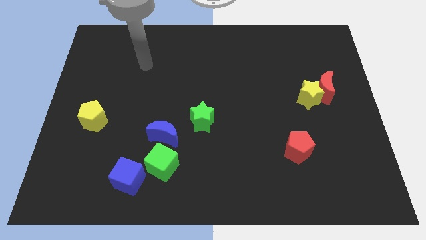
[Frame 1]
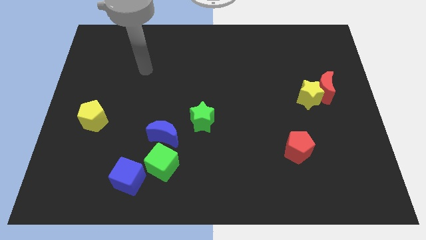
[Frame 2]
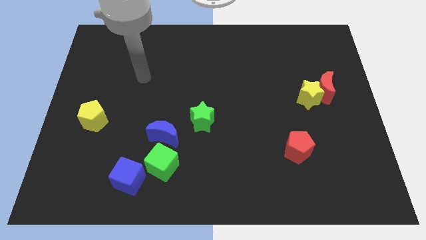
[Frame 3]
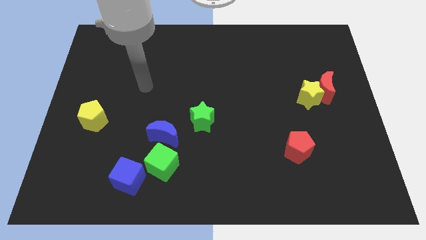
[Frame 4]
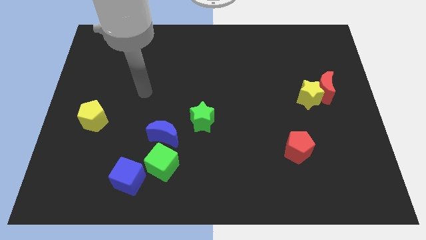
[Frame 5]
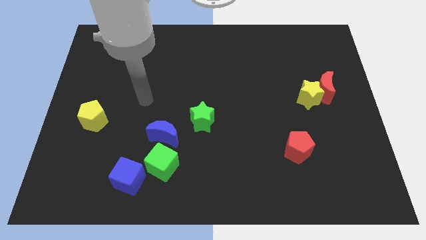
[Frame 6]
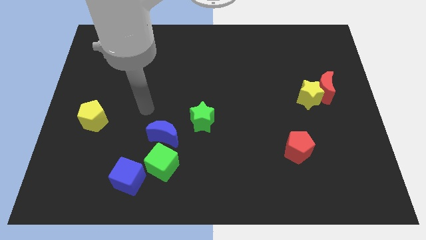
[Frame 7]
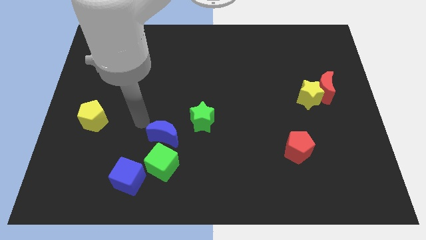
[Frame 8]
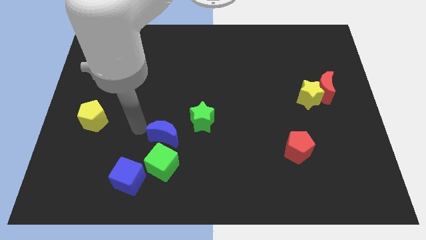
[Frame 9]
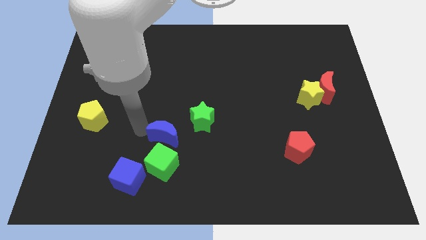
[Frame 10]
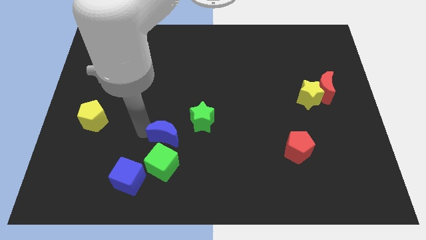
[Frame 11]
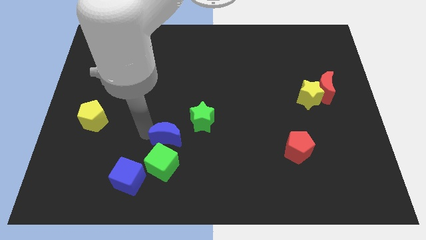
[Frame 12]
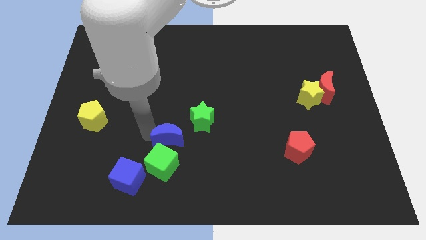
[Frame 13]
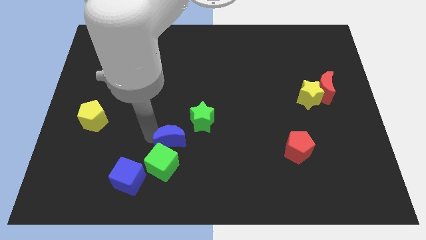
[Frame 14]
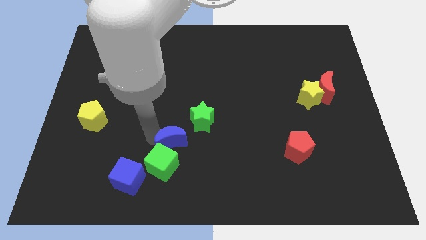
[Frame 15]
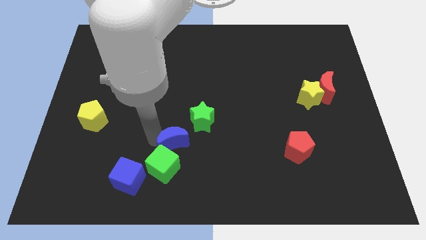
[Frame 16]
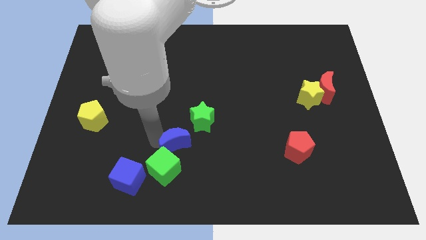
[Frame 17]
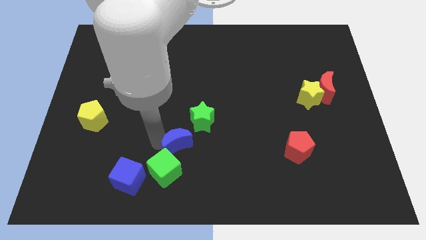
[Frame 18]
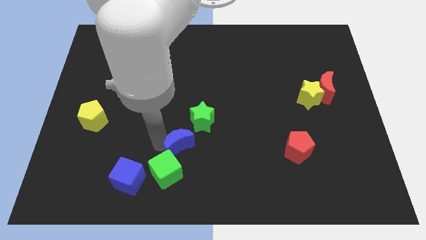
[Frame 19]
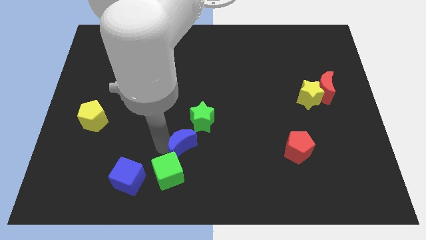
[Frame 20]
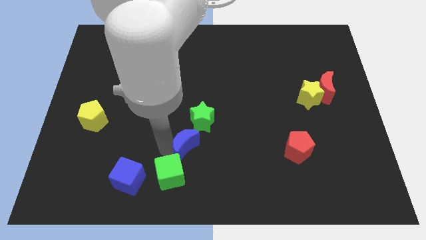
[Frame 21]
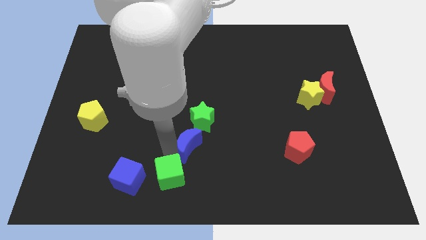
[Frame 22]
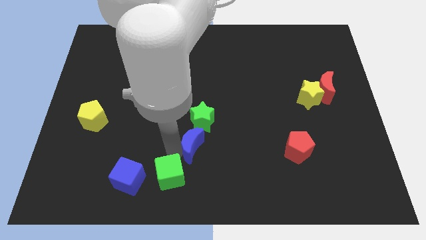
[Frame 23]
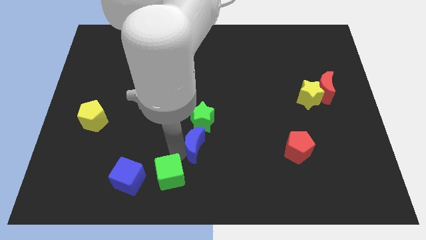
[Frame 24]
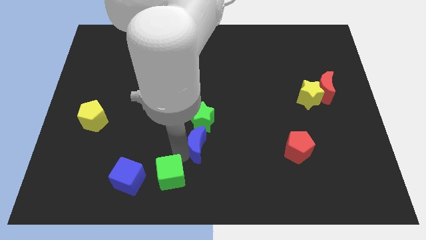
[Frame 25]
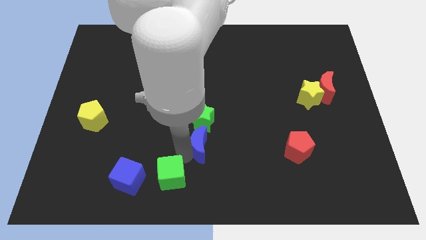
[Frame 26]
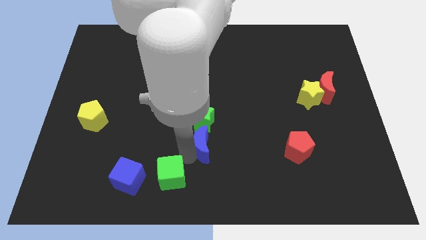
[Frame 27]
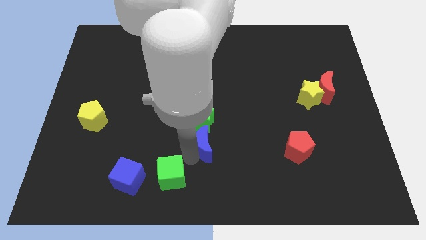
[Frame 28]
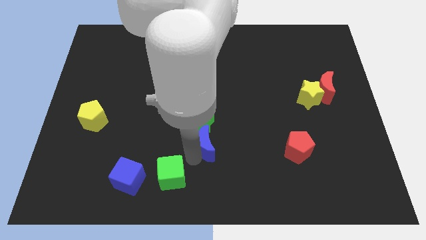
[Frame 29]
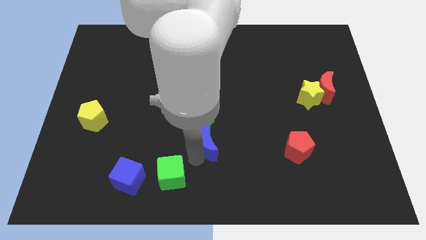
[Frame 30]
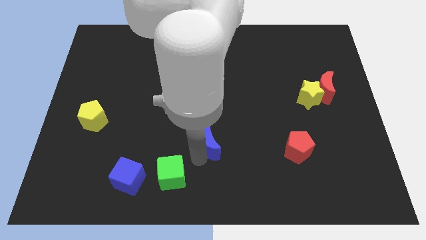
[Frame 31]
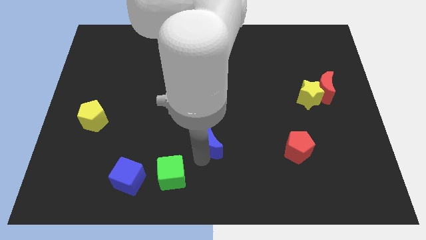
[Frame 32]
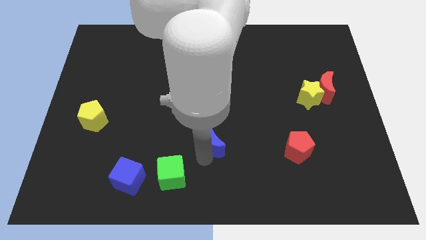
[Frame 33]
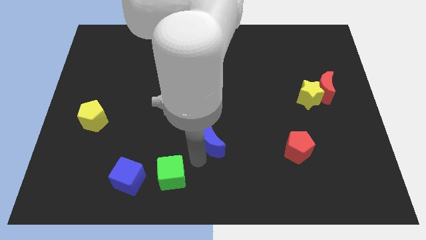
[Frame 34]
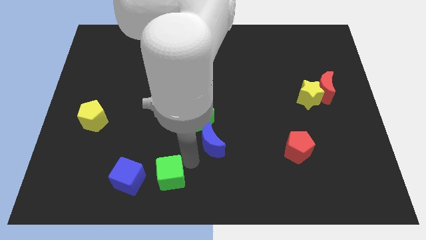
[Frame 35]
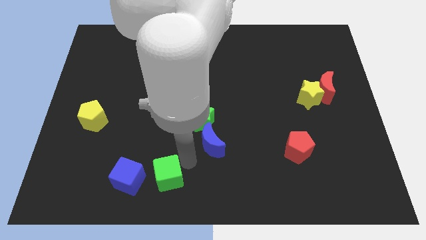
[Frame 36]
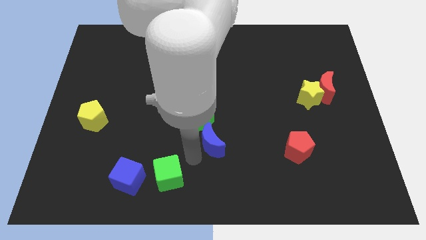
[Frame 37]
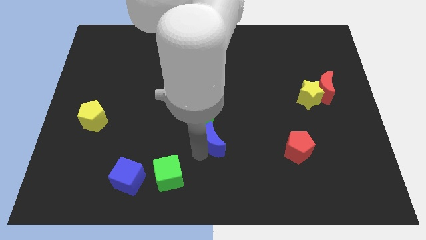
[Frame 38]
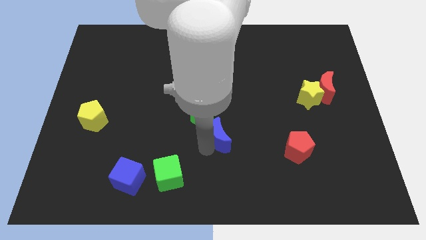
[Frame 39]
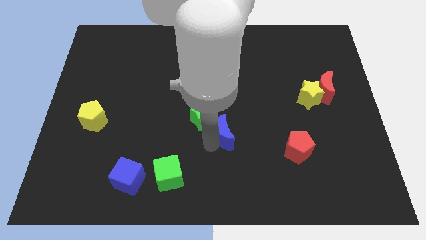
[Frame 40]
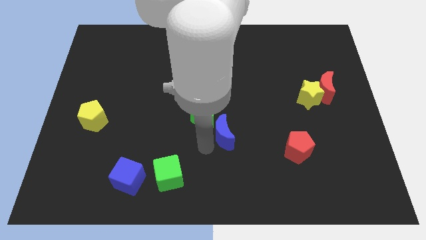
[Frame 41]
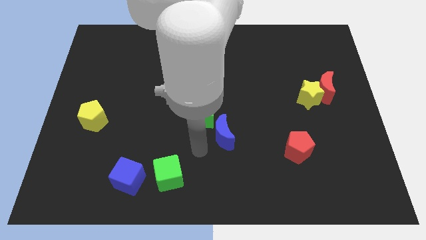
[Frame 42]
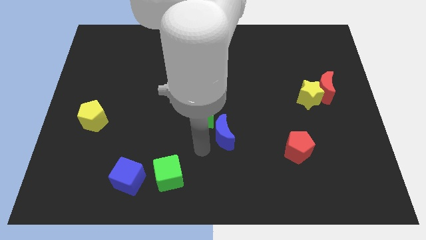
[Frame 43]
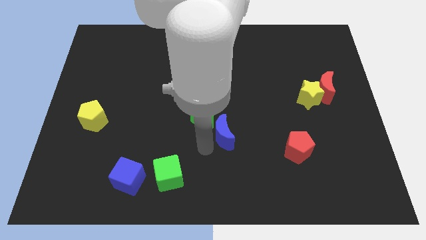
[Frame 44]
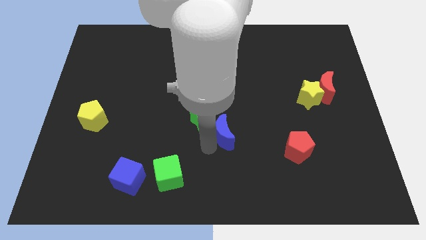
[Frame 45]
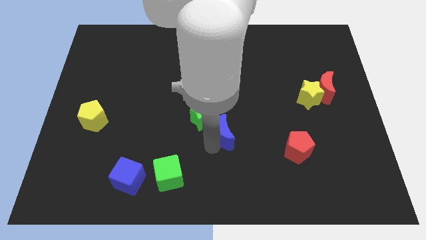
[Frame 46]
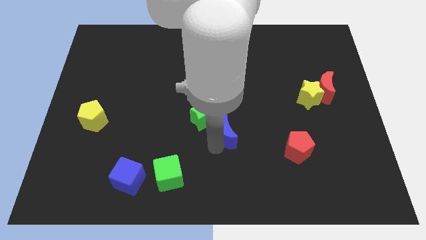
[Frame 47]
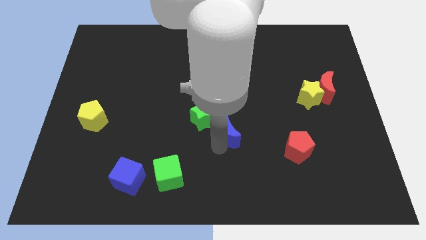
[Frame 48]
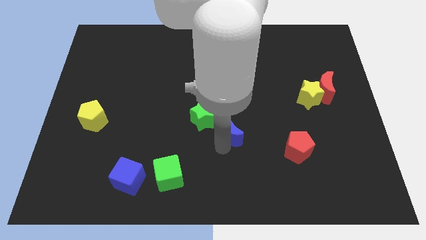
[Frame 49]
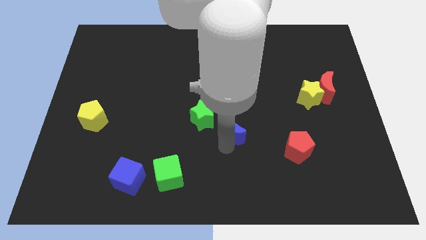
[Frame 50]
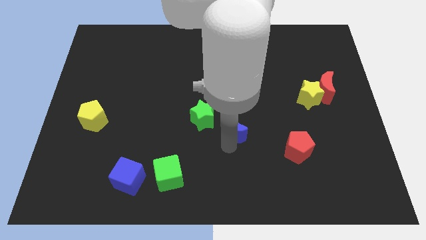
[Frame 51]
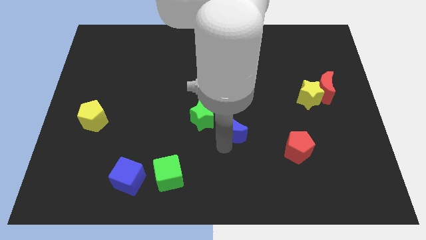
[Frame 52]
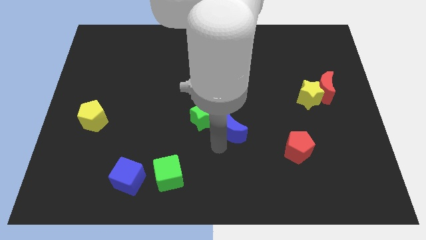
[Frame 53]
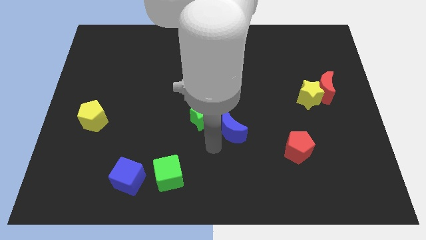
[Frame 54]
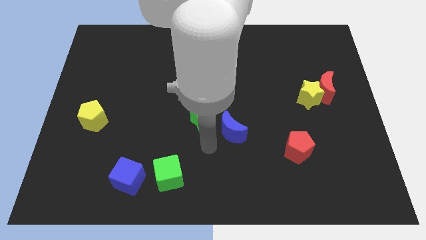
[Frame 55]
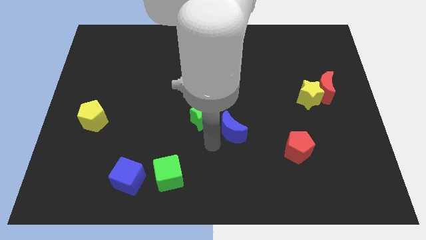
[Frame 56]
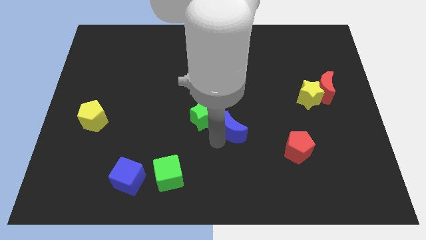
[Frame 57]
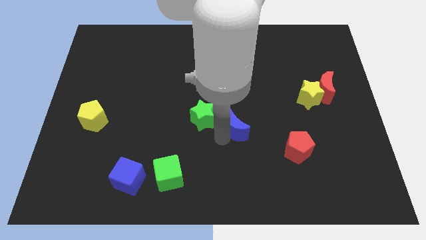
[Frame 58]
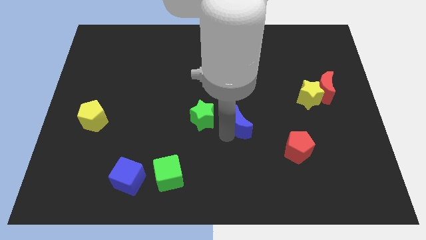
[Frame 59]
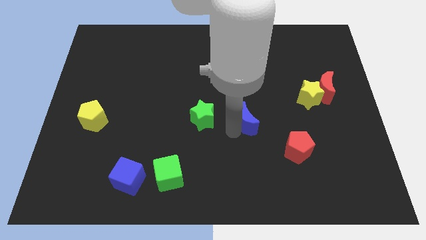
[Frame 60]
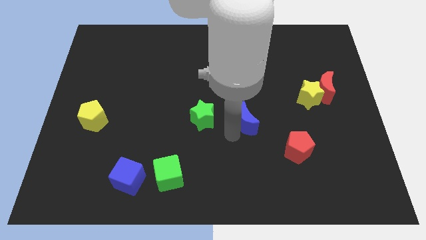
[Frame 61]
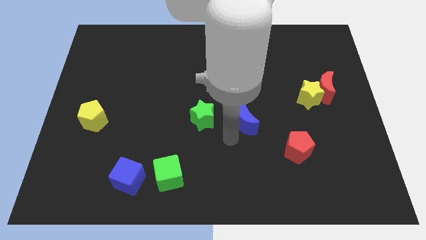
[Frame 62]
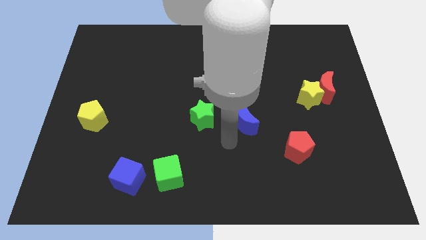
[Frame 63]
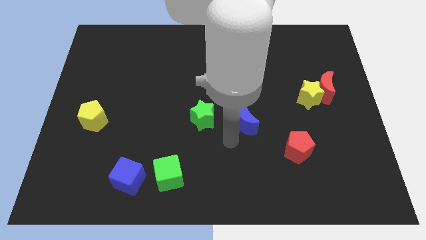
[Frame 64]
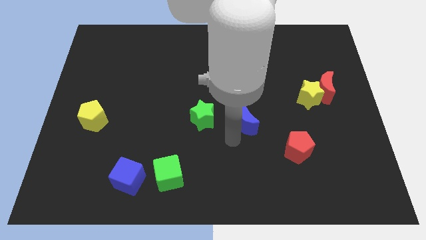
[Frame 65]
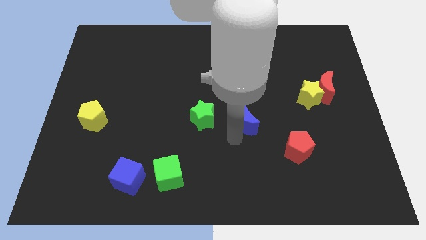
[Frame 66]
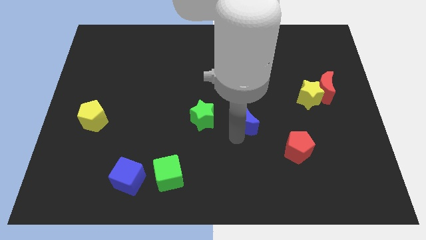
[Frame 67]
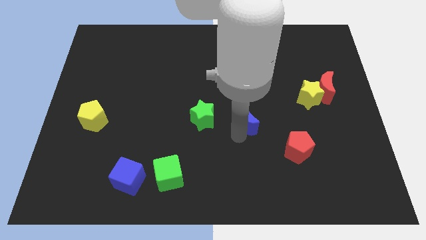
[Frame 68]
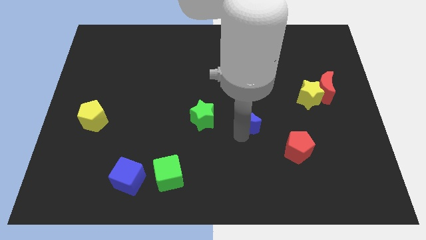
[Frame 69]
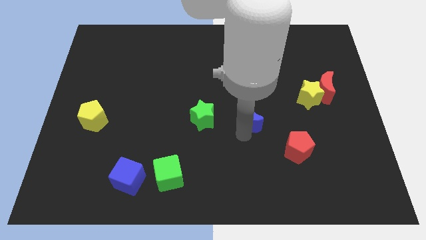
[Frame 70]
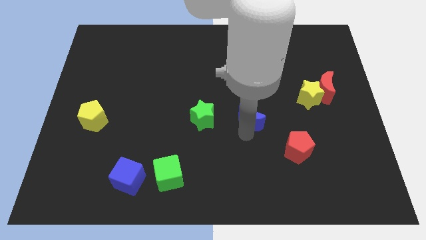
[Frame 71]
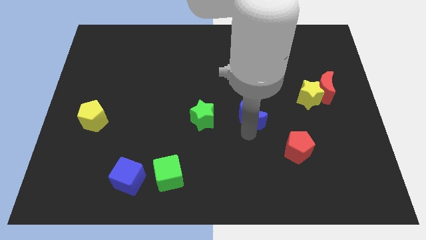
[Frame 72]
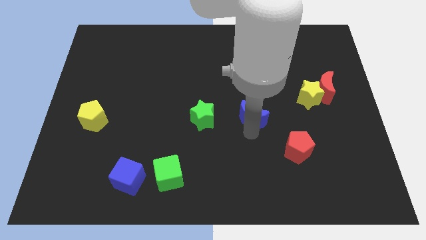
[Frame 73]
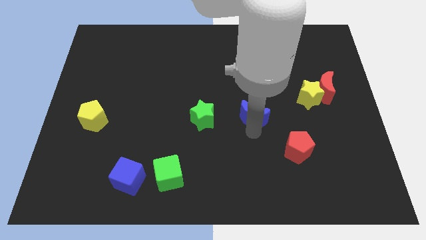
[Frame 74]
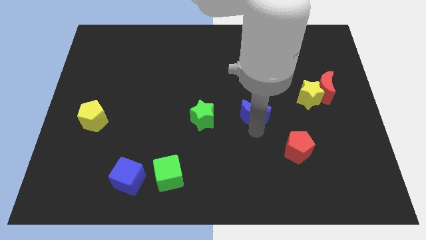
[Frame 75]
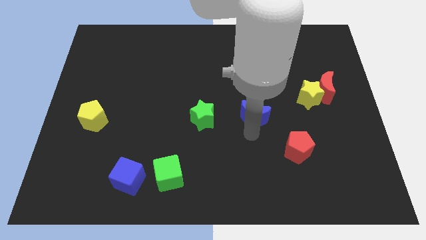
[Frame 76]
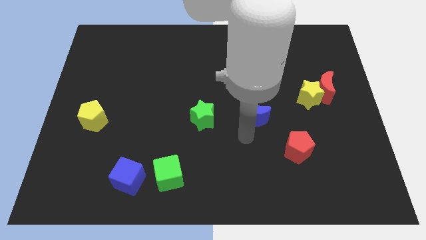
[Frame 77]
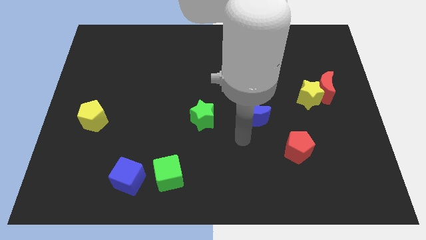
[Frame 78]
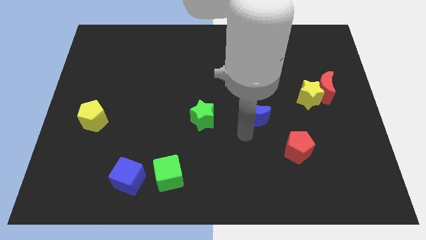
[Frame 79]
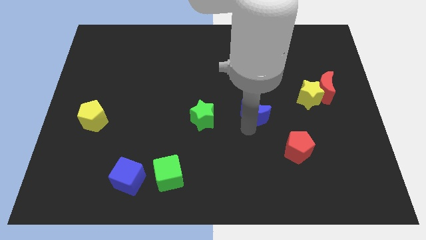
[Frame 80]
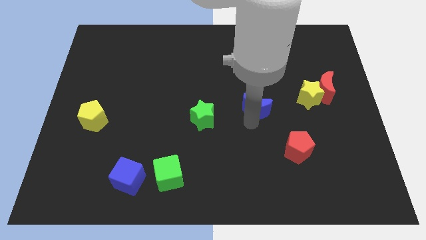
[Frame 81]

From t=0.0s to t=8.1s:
slide the blue moon just left of the yellow star
